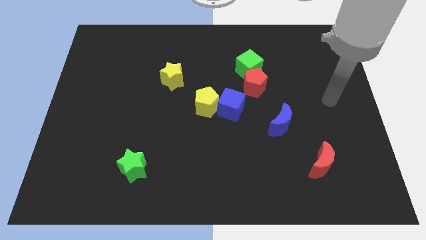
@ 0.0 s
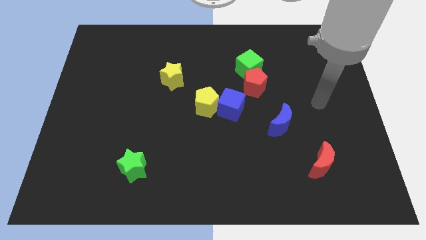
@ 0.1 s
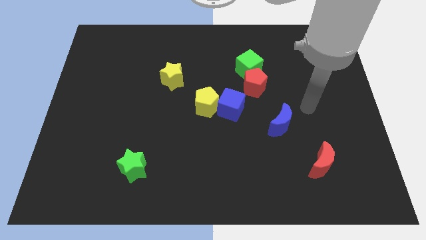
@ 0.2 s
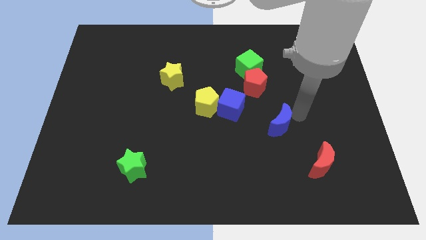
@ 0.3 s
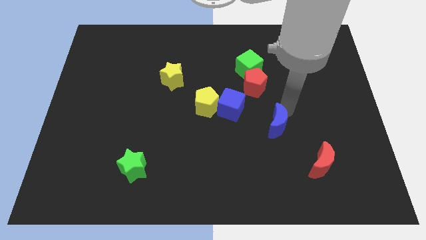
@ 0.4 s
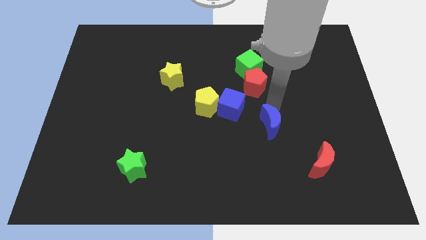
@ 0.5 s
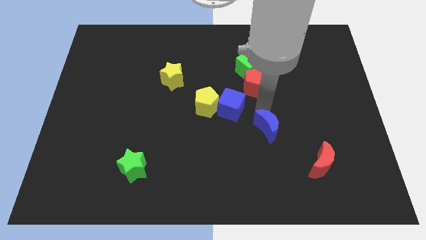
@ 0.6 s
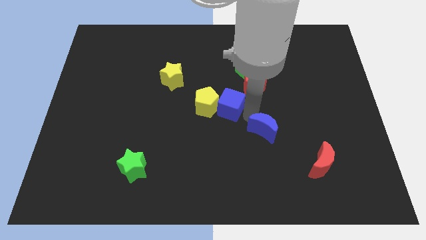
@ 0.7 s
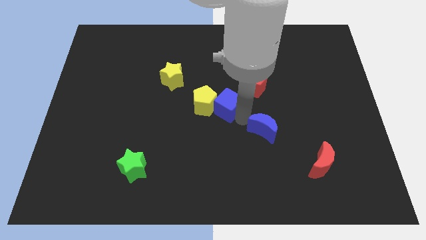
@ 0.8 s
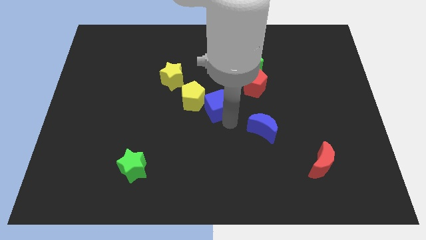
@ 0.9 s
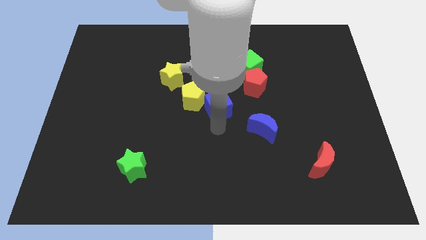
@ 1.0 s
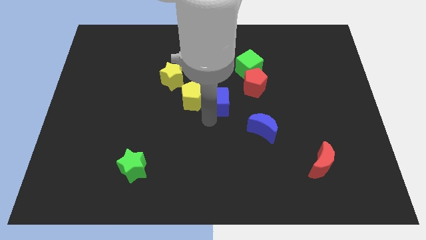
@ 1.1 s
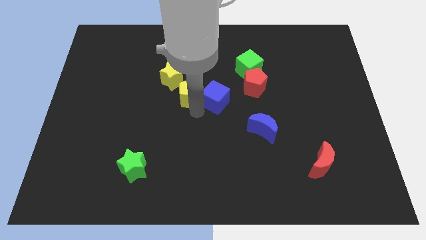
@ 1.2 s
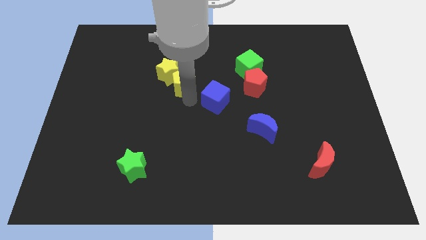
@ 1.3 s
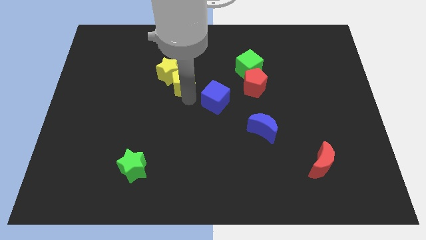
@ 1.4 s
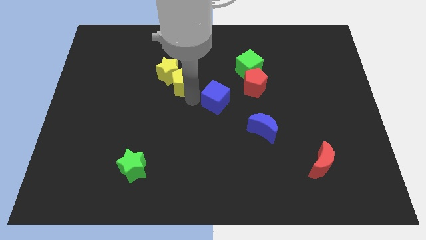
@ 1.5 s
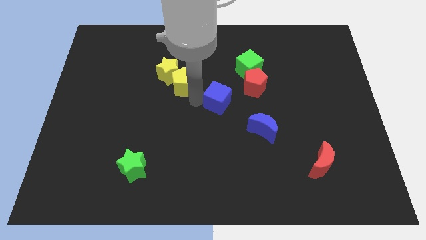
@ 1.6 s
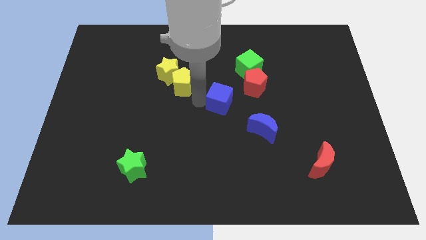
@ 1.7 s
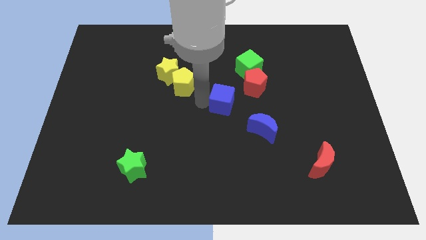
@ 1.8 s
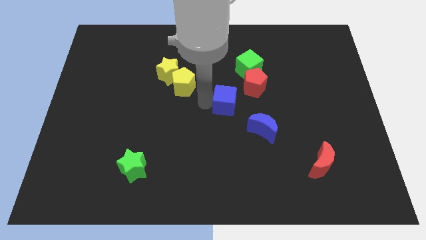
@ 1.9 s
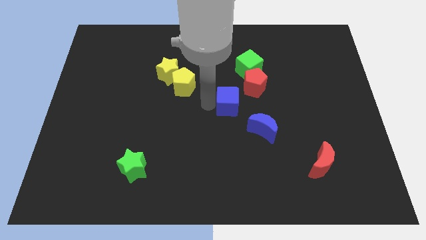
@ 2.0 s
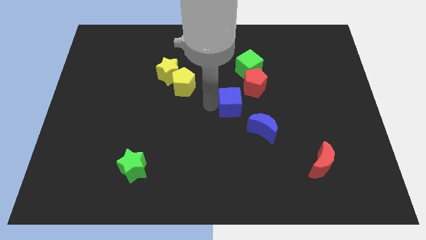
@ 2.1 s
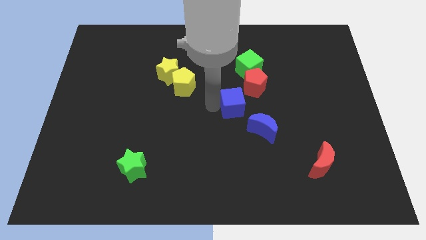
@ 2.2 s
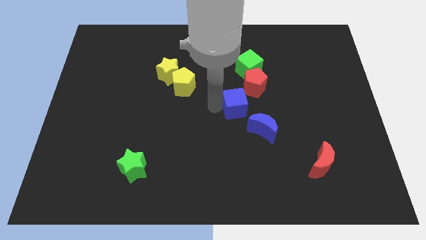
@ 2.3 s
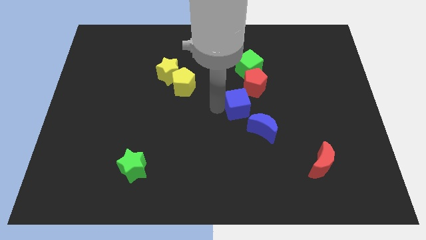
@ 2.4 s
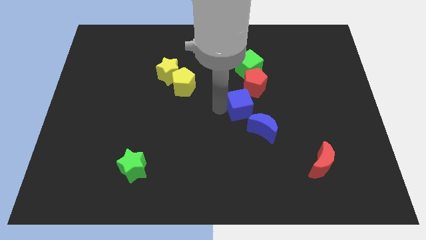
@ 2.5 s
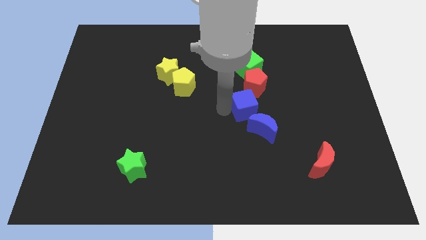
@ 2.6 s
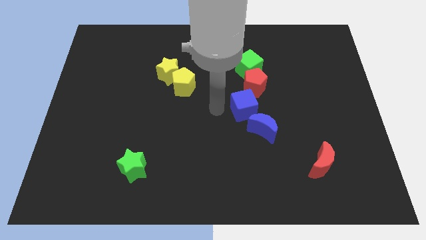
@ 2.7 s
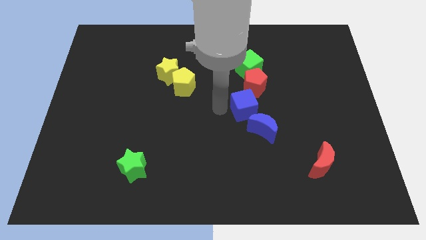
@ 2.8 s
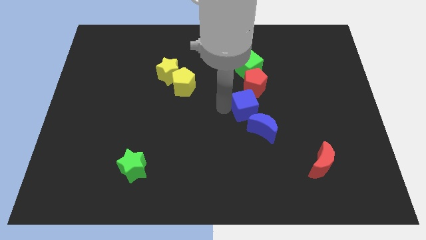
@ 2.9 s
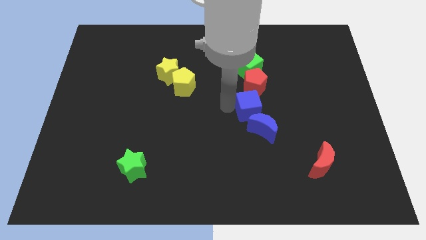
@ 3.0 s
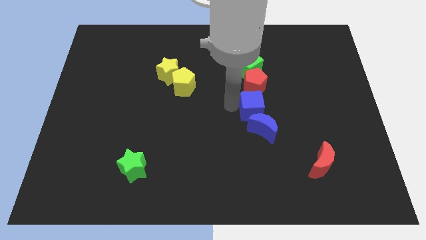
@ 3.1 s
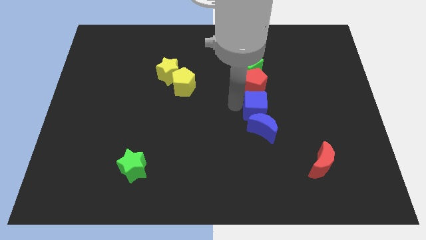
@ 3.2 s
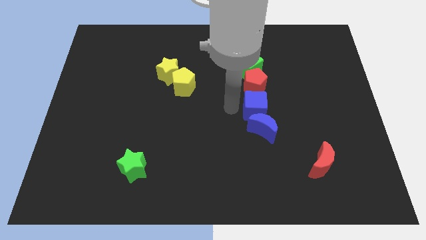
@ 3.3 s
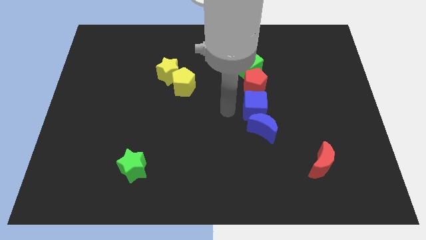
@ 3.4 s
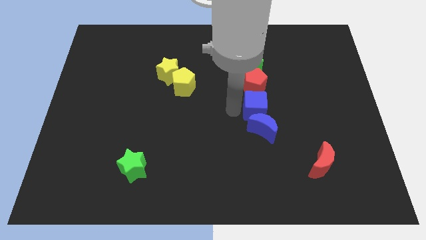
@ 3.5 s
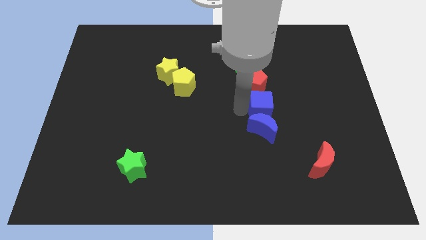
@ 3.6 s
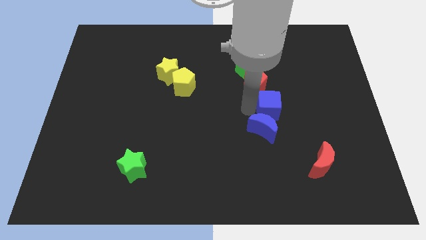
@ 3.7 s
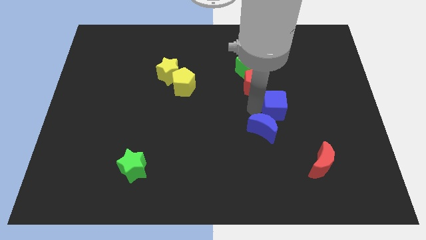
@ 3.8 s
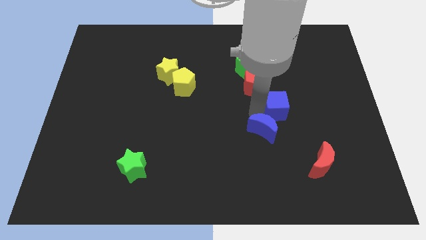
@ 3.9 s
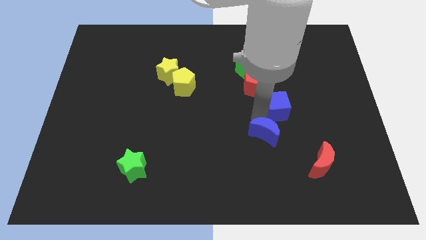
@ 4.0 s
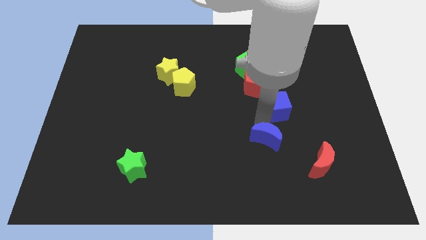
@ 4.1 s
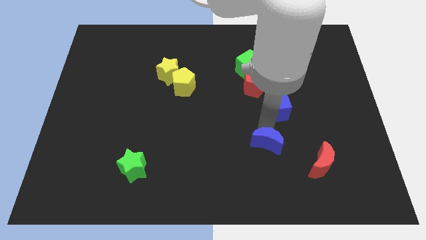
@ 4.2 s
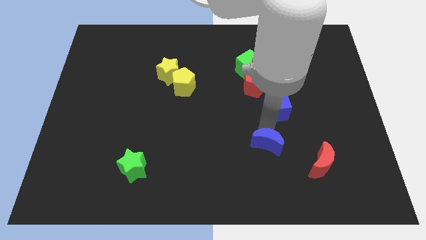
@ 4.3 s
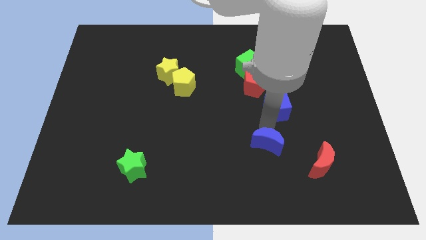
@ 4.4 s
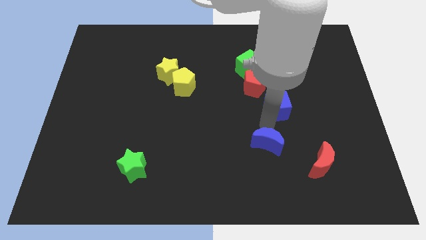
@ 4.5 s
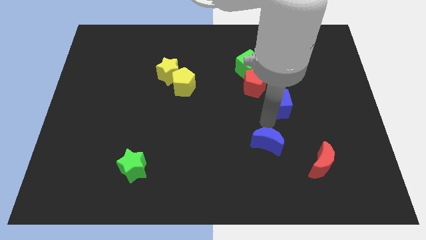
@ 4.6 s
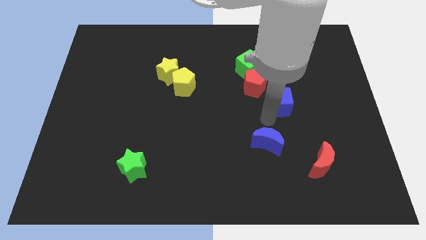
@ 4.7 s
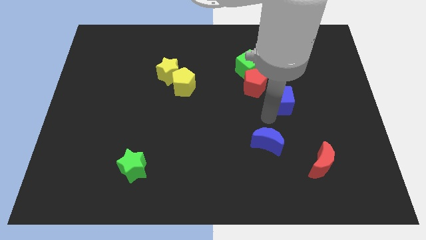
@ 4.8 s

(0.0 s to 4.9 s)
push the blue cube upwards and to the right a bit

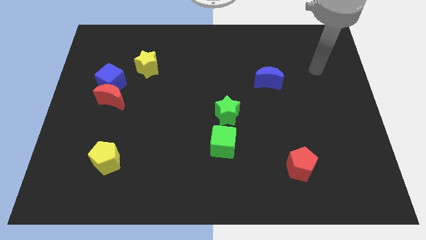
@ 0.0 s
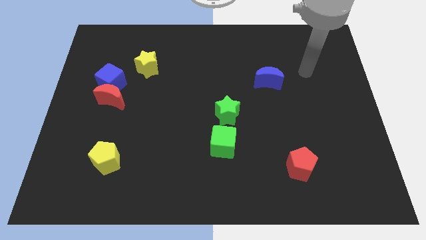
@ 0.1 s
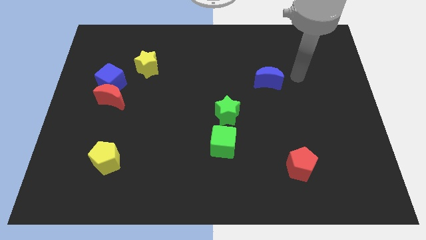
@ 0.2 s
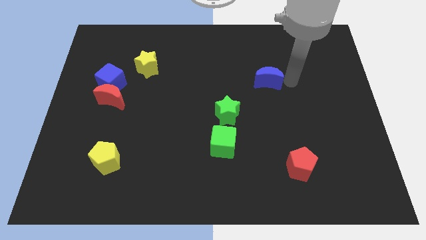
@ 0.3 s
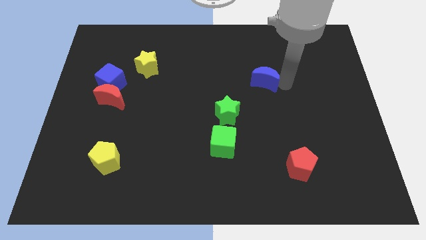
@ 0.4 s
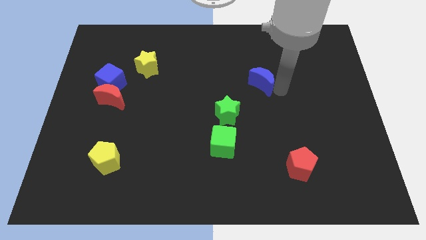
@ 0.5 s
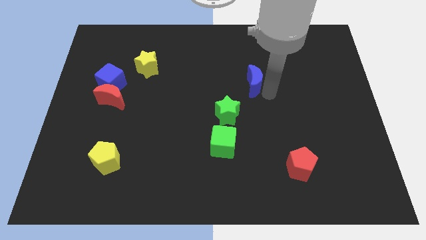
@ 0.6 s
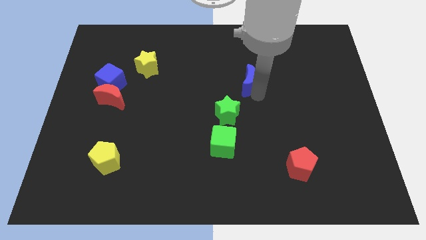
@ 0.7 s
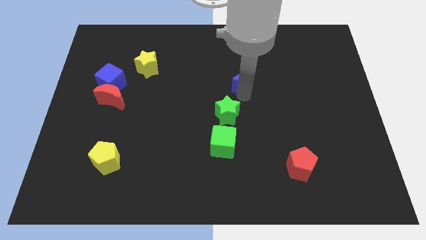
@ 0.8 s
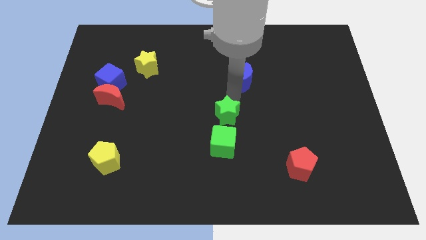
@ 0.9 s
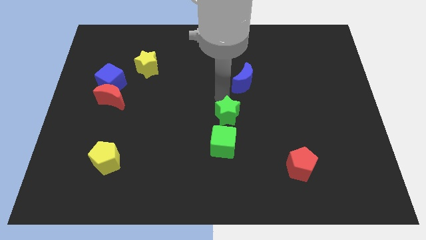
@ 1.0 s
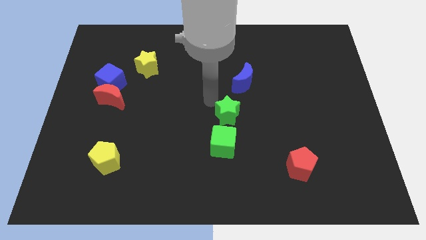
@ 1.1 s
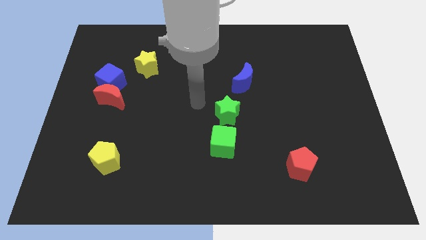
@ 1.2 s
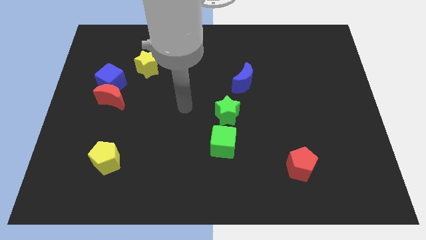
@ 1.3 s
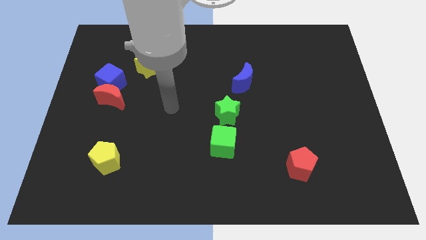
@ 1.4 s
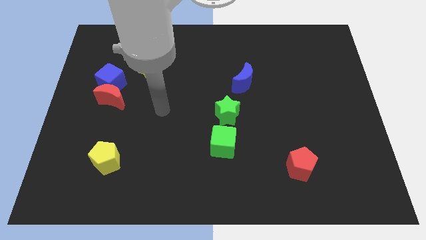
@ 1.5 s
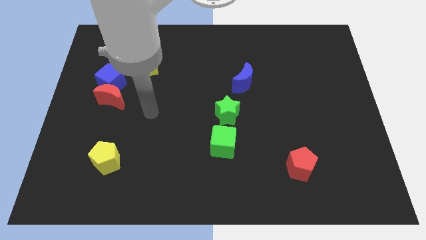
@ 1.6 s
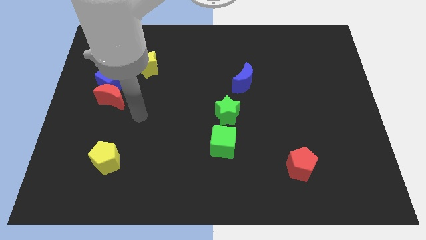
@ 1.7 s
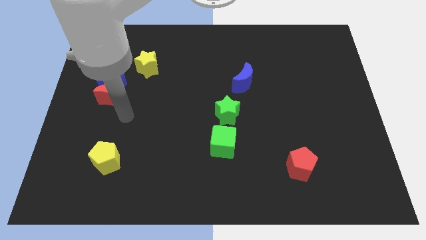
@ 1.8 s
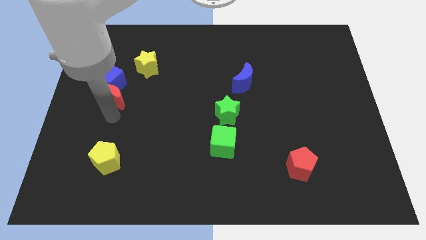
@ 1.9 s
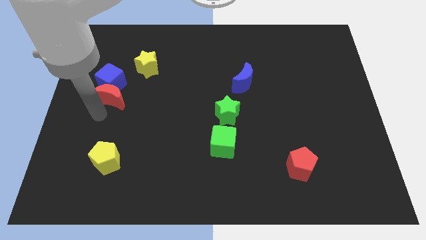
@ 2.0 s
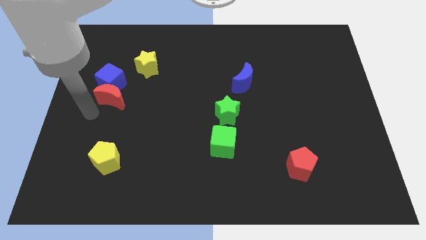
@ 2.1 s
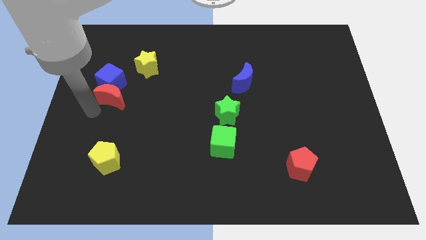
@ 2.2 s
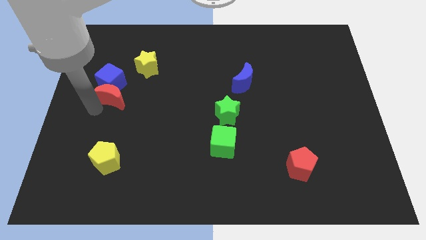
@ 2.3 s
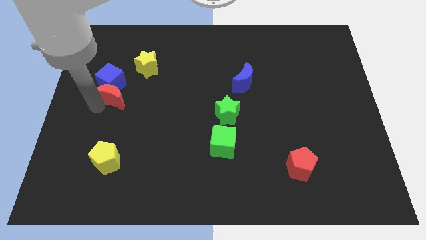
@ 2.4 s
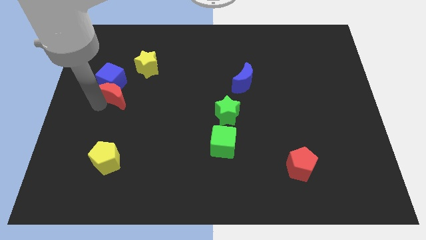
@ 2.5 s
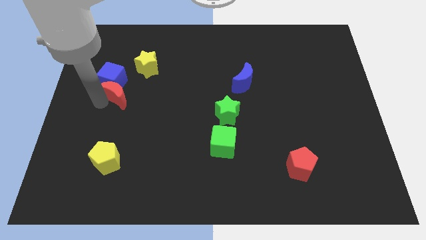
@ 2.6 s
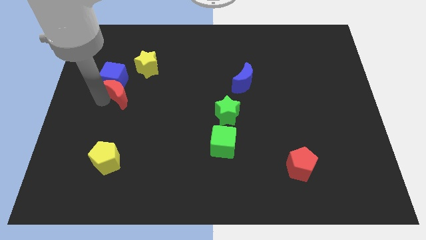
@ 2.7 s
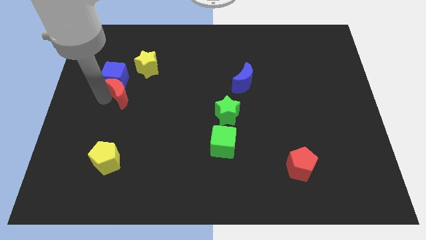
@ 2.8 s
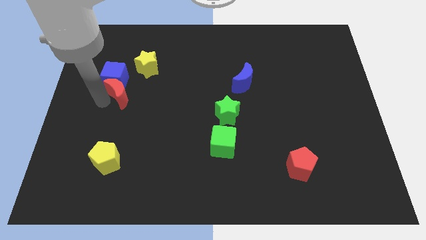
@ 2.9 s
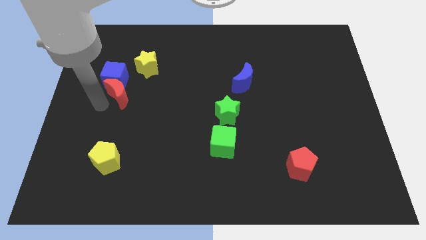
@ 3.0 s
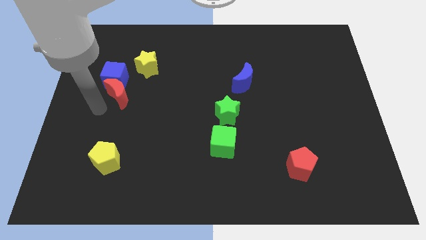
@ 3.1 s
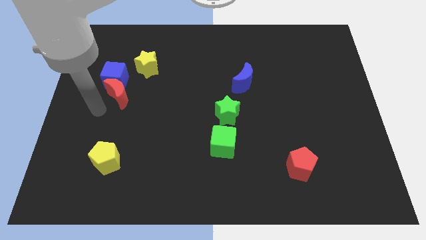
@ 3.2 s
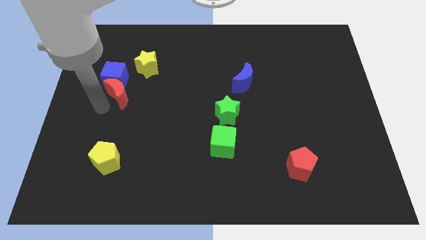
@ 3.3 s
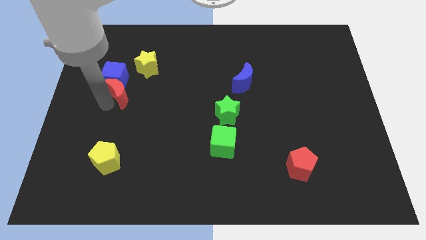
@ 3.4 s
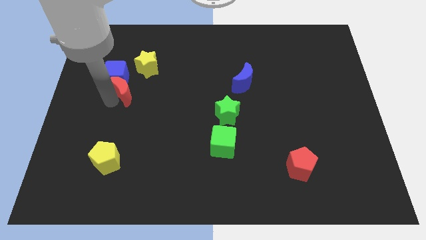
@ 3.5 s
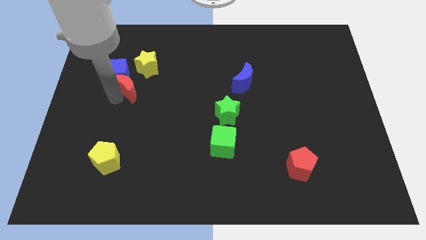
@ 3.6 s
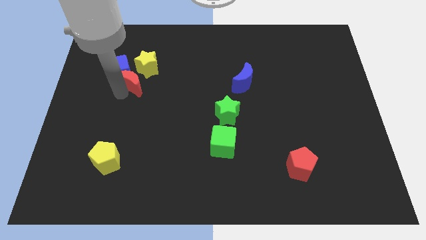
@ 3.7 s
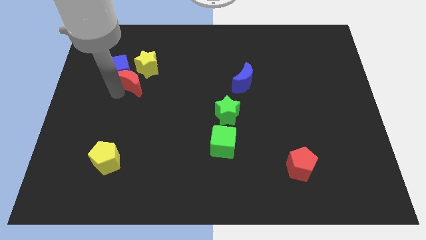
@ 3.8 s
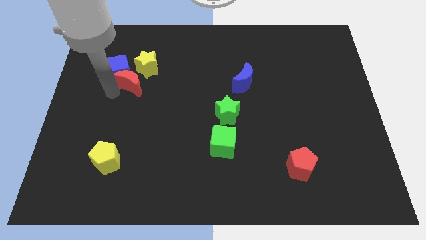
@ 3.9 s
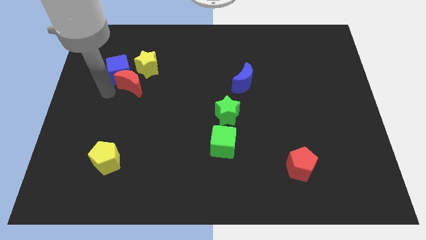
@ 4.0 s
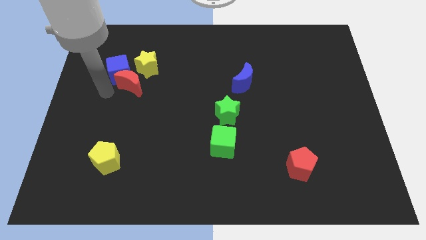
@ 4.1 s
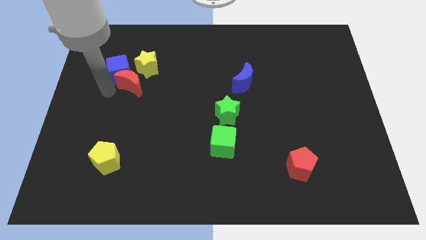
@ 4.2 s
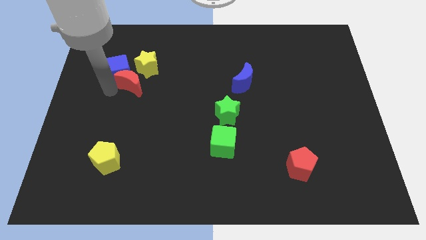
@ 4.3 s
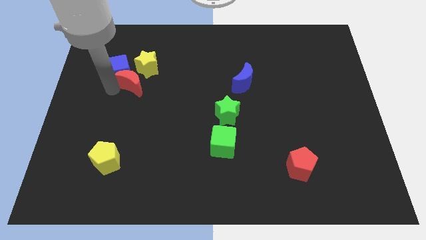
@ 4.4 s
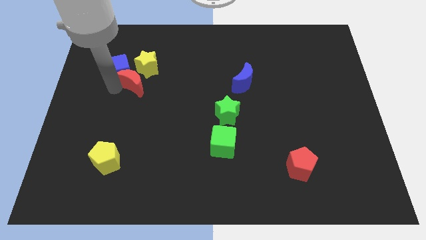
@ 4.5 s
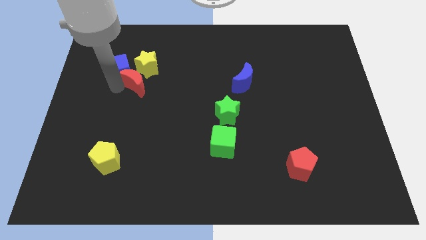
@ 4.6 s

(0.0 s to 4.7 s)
slide the red moon a little bit diagonally upwards and to the right
